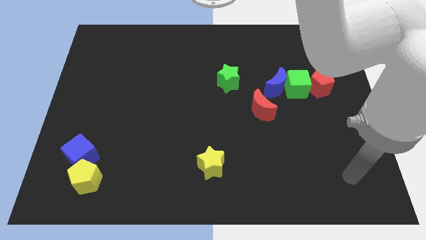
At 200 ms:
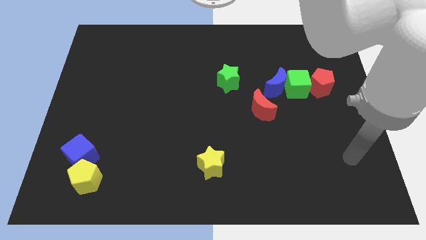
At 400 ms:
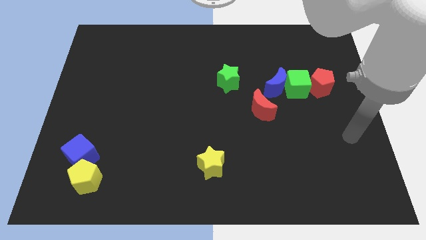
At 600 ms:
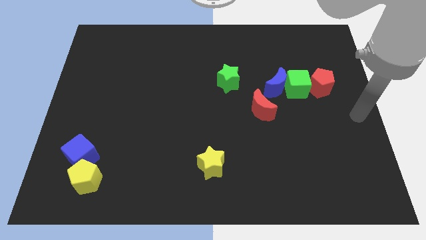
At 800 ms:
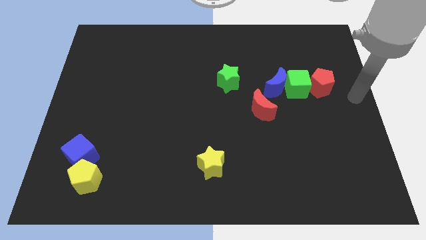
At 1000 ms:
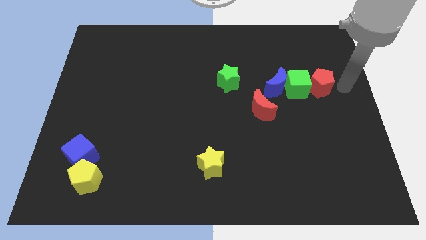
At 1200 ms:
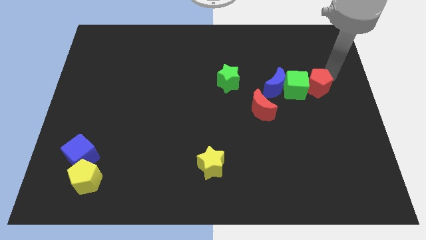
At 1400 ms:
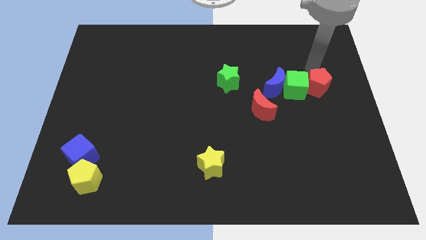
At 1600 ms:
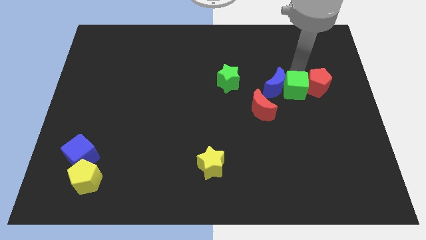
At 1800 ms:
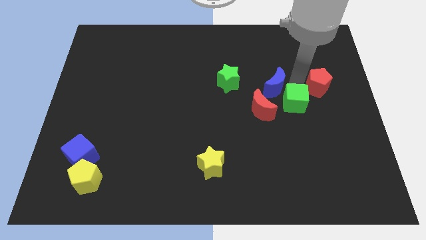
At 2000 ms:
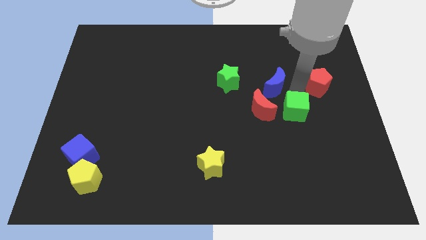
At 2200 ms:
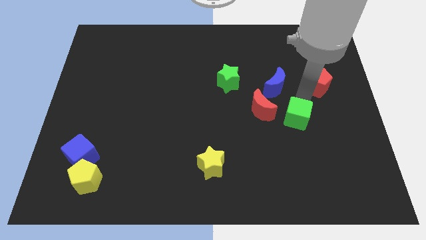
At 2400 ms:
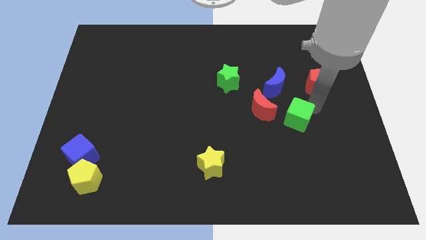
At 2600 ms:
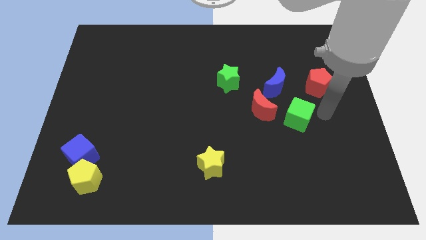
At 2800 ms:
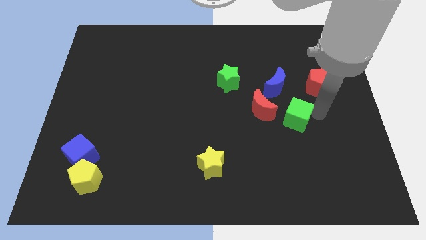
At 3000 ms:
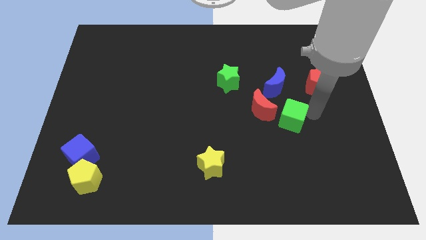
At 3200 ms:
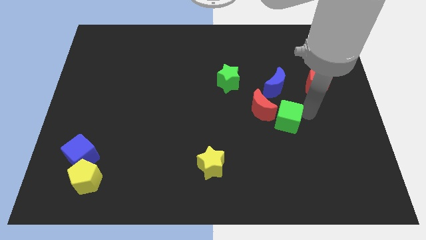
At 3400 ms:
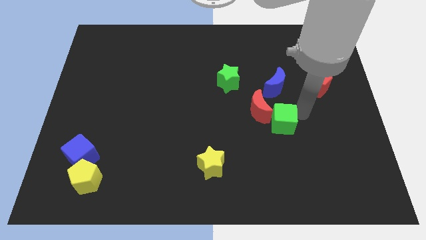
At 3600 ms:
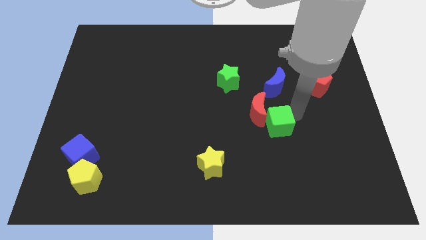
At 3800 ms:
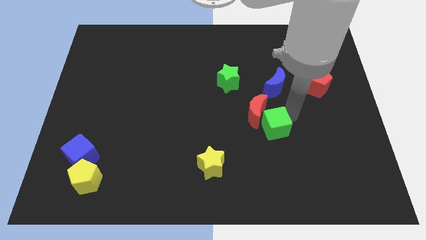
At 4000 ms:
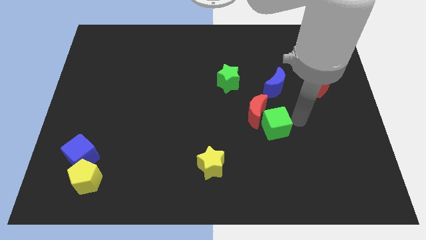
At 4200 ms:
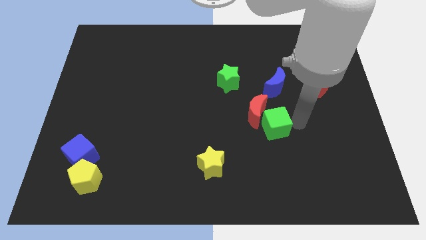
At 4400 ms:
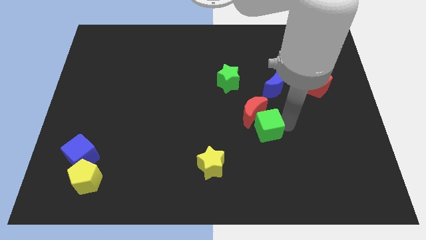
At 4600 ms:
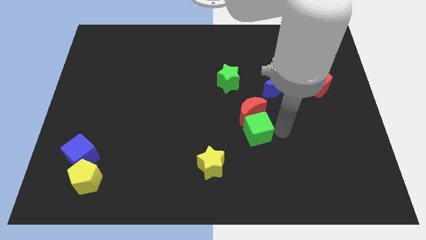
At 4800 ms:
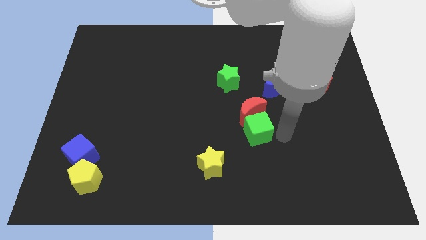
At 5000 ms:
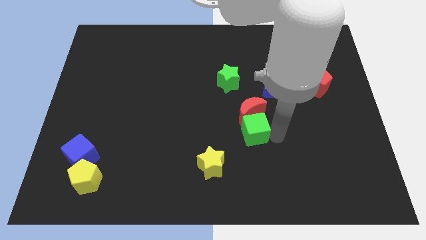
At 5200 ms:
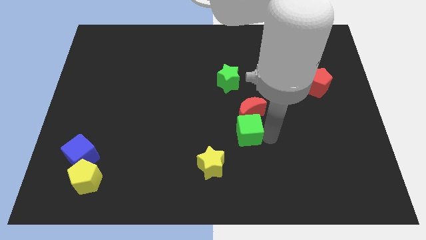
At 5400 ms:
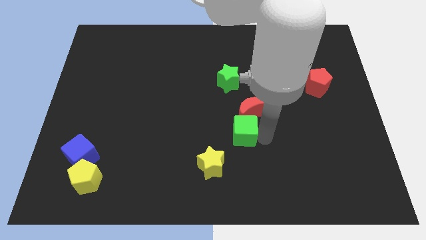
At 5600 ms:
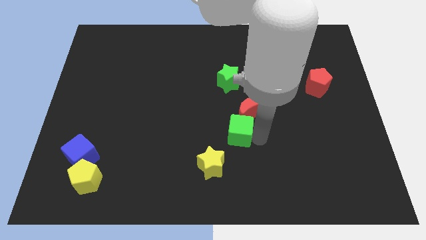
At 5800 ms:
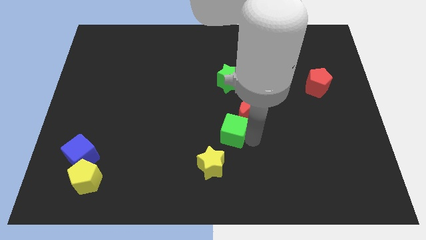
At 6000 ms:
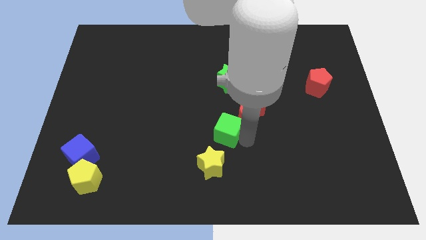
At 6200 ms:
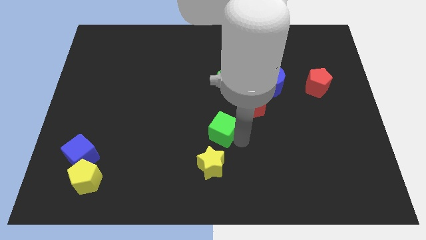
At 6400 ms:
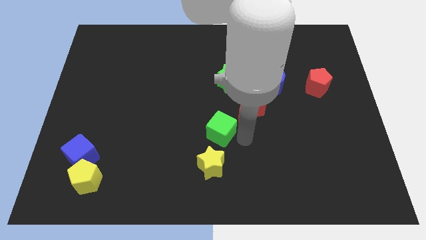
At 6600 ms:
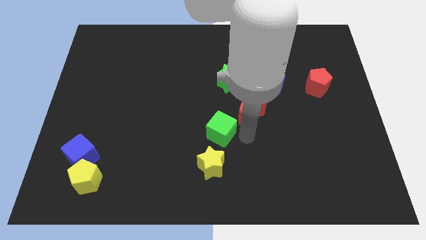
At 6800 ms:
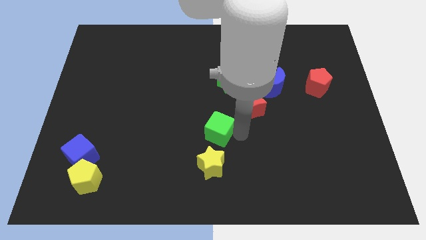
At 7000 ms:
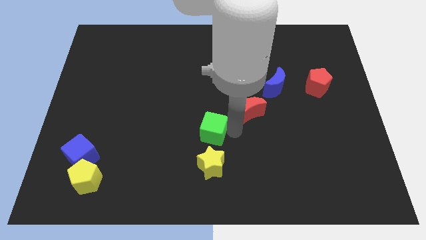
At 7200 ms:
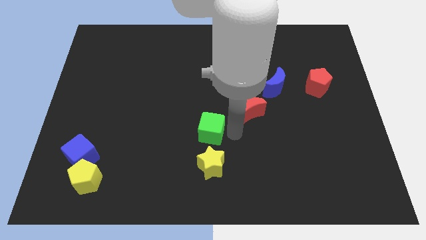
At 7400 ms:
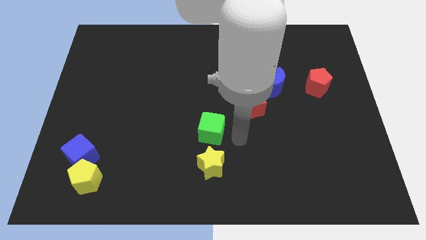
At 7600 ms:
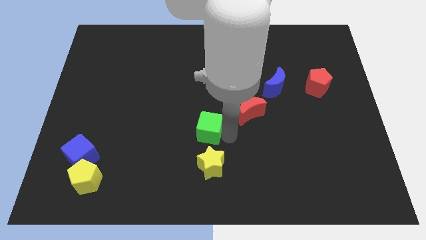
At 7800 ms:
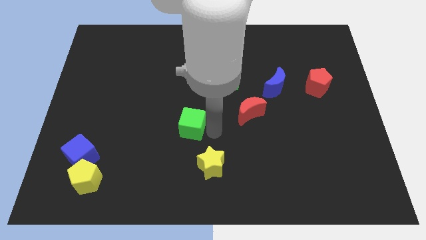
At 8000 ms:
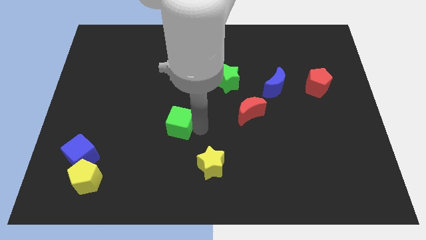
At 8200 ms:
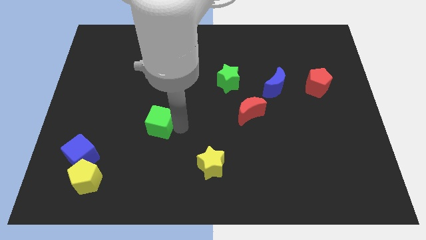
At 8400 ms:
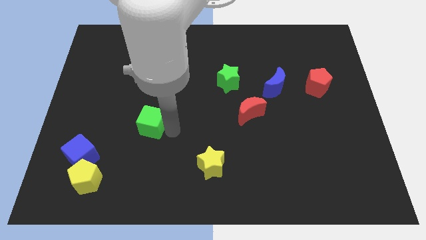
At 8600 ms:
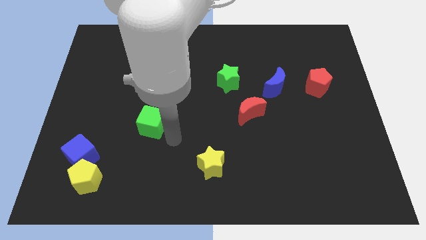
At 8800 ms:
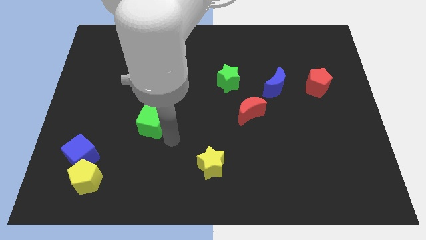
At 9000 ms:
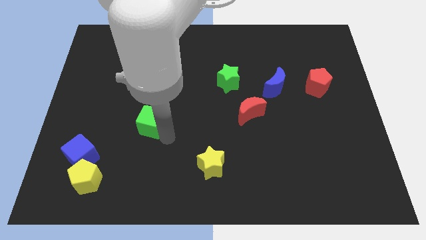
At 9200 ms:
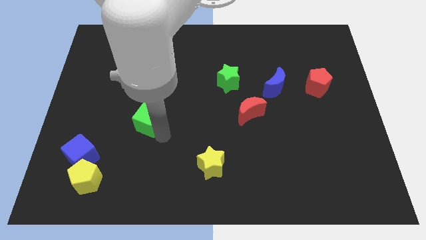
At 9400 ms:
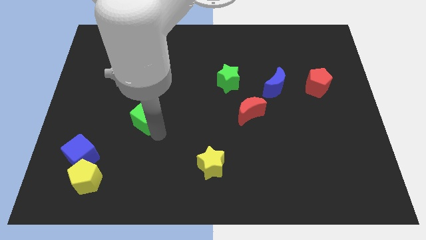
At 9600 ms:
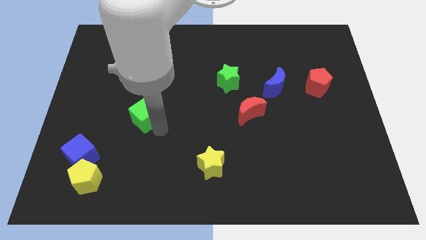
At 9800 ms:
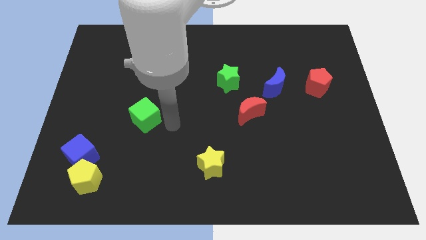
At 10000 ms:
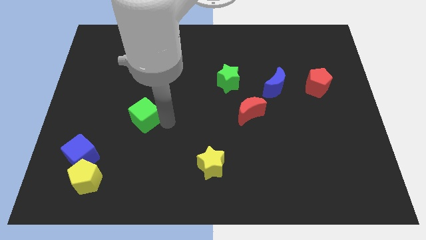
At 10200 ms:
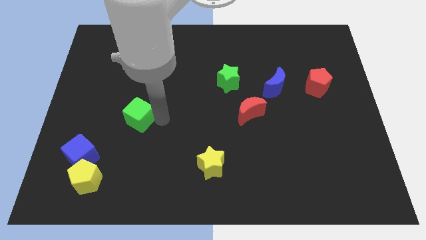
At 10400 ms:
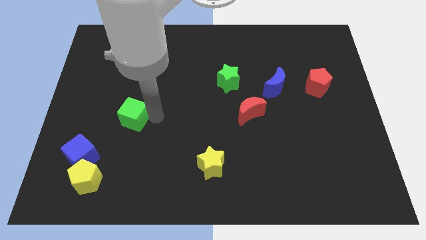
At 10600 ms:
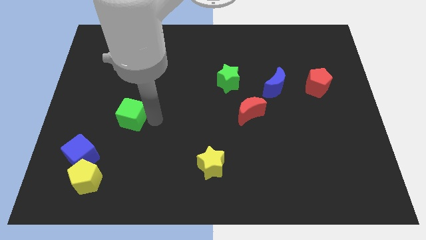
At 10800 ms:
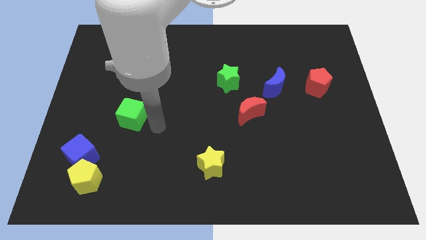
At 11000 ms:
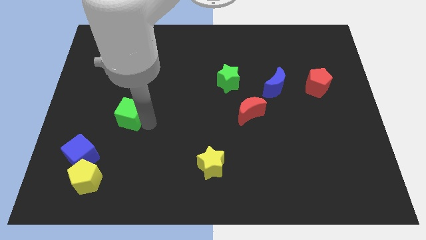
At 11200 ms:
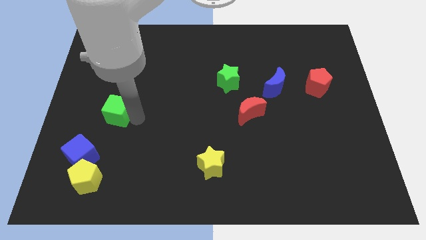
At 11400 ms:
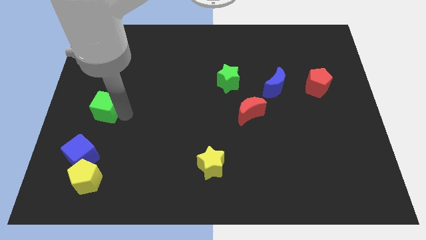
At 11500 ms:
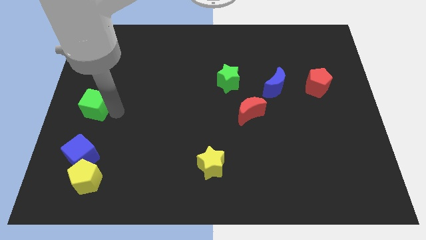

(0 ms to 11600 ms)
put the green cube to the center left
